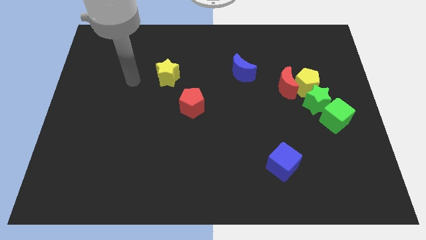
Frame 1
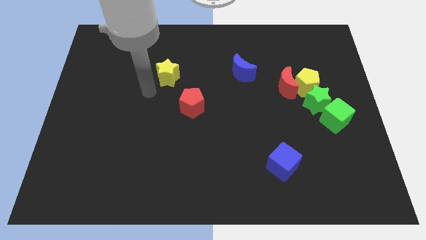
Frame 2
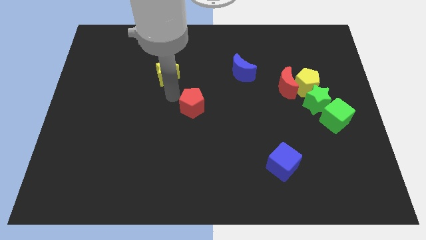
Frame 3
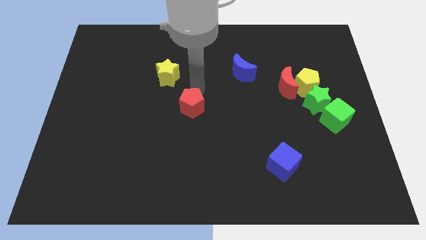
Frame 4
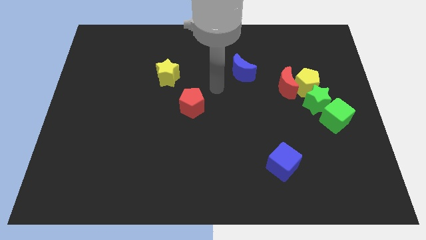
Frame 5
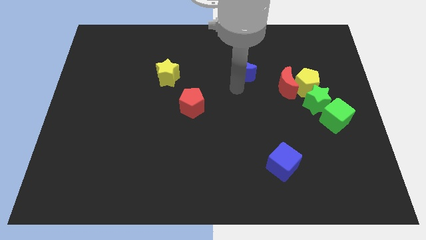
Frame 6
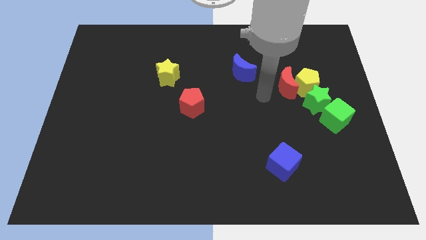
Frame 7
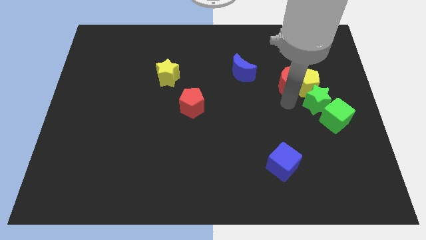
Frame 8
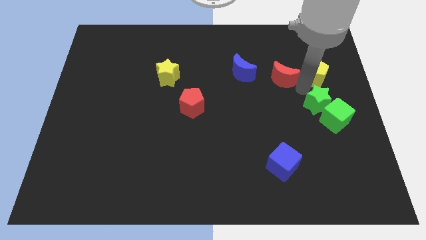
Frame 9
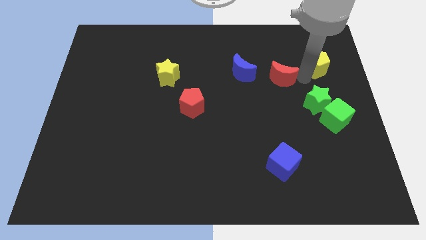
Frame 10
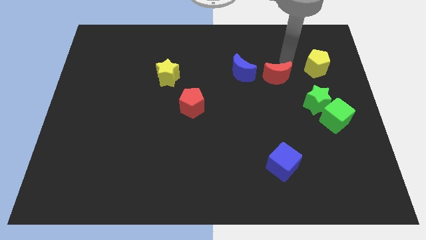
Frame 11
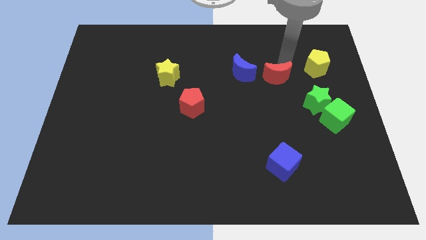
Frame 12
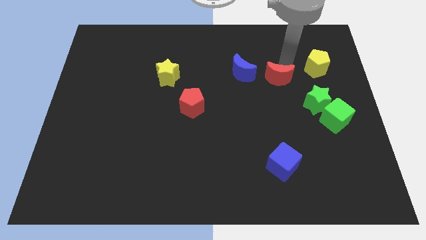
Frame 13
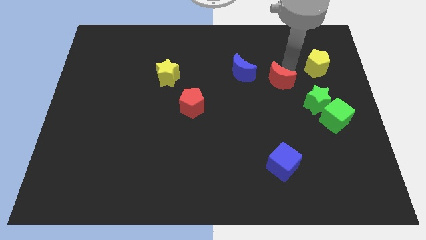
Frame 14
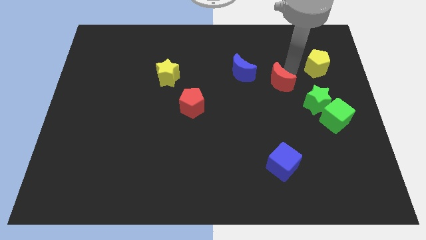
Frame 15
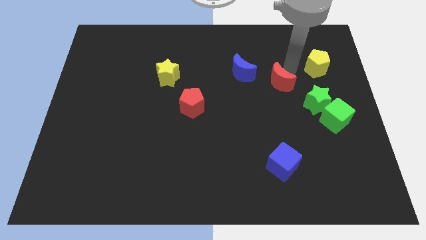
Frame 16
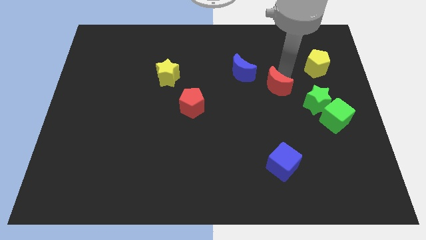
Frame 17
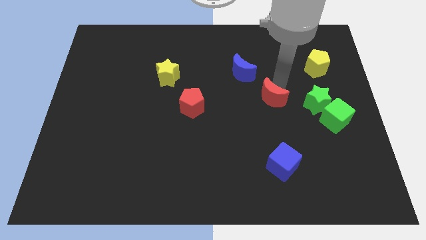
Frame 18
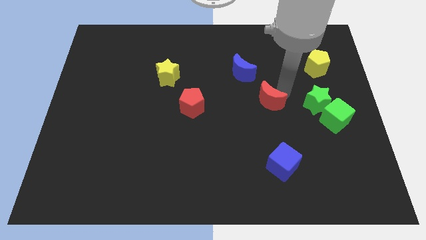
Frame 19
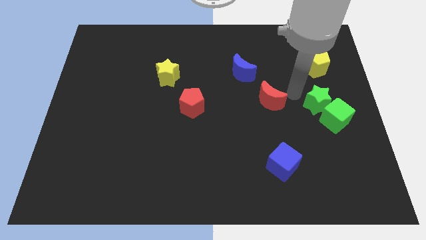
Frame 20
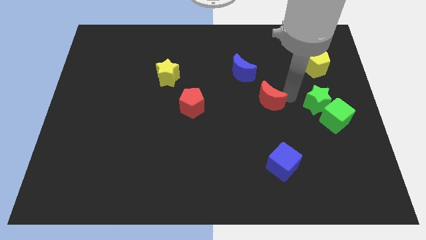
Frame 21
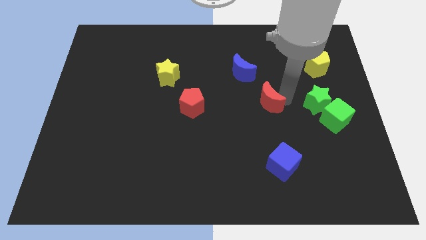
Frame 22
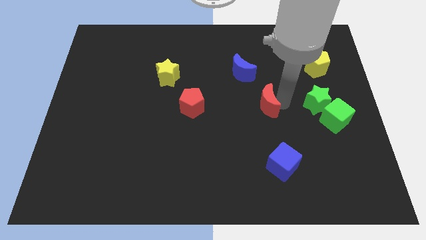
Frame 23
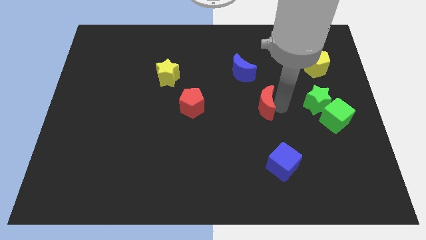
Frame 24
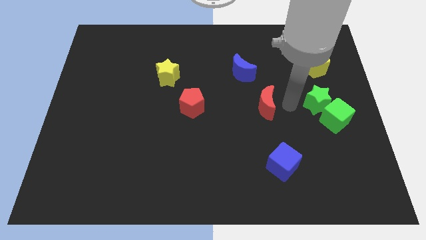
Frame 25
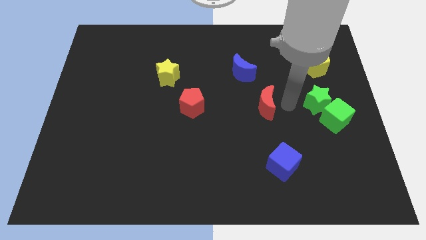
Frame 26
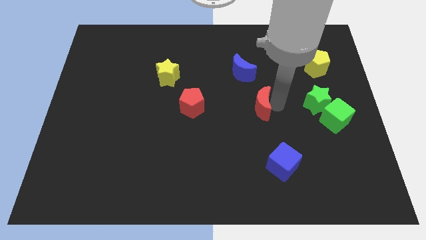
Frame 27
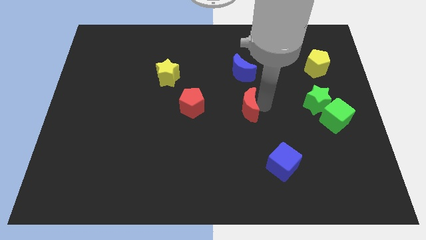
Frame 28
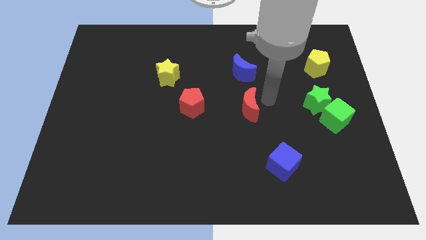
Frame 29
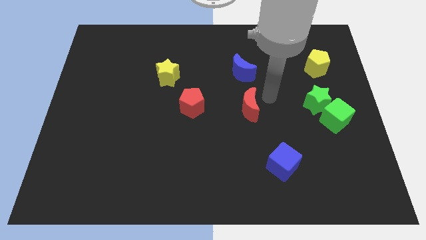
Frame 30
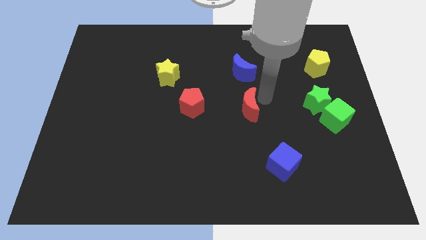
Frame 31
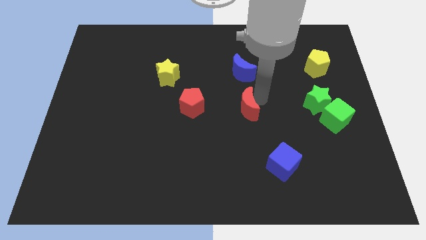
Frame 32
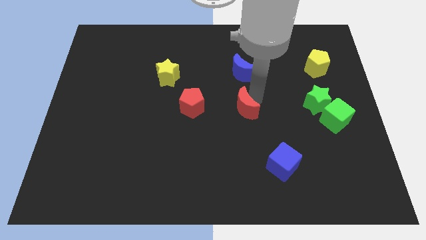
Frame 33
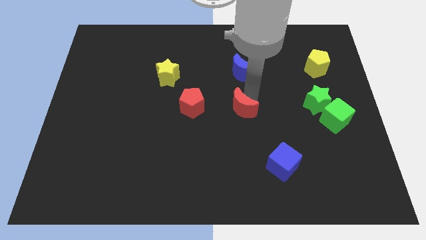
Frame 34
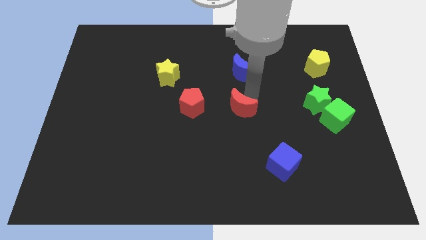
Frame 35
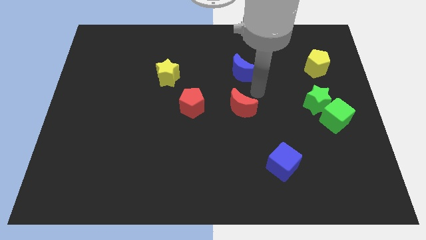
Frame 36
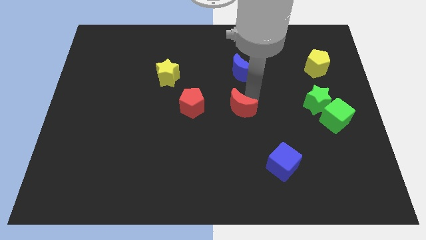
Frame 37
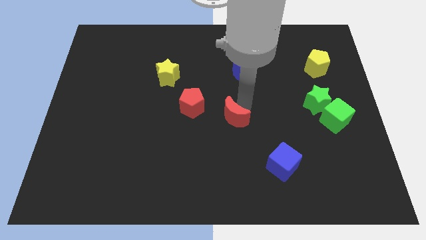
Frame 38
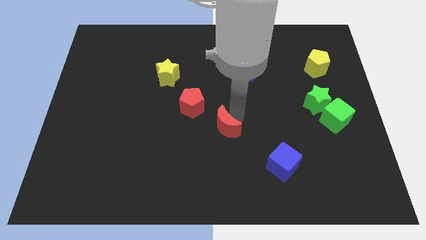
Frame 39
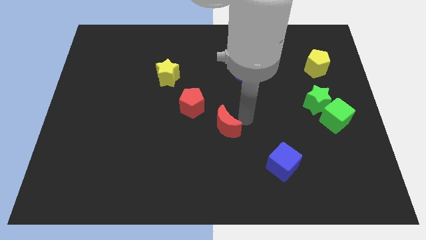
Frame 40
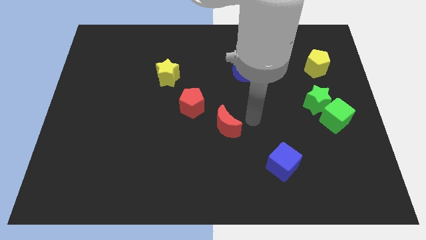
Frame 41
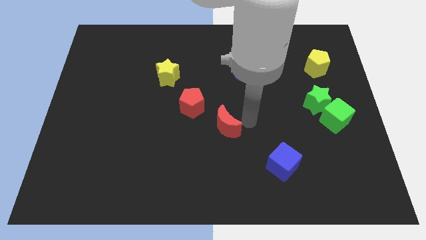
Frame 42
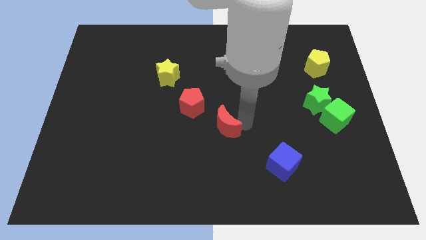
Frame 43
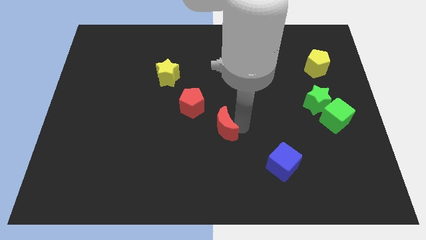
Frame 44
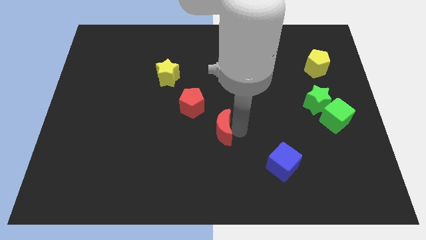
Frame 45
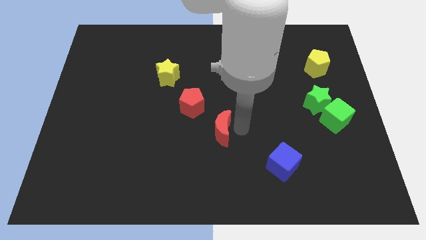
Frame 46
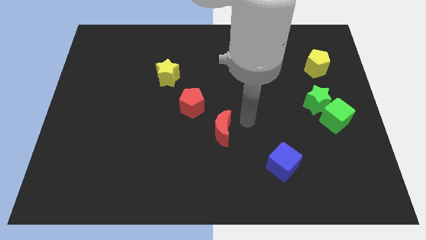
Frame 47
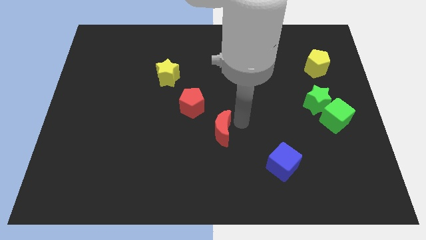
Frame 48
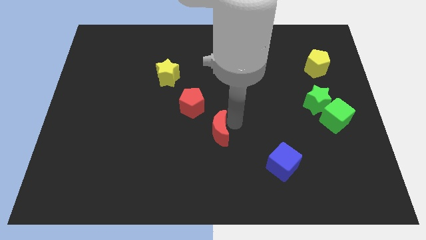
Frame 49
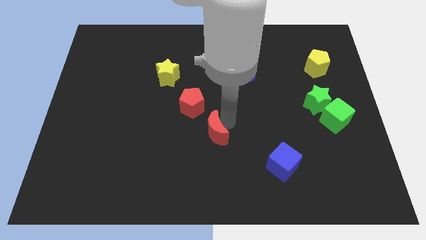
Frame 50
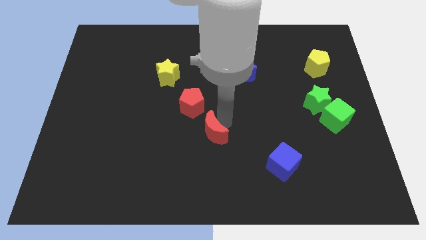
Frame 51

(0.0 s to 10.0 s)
slide the red moon to the bottom side of the red pentagon

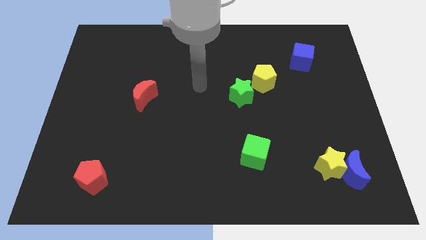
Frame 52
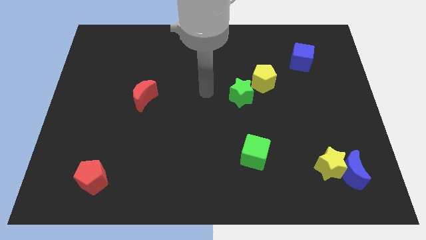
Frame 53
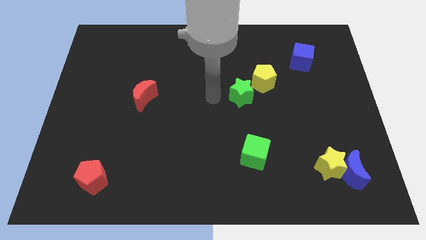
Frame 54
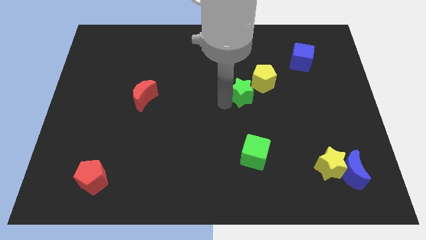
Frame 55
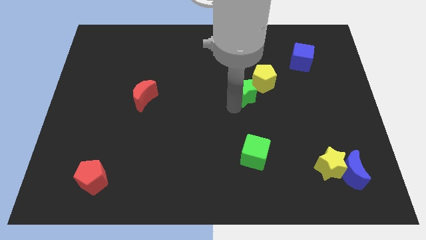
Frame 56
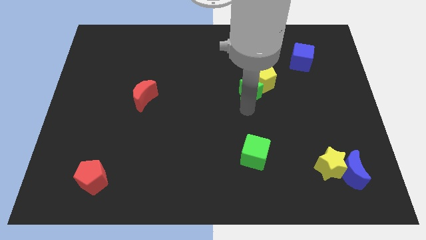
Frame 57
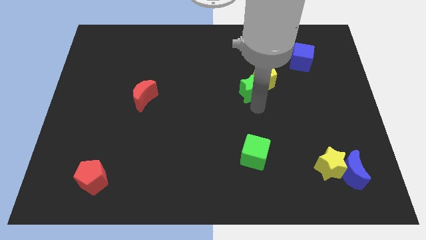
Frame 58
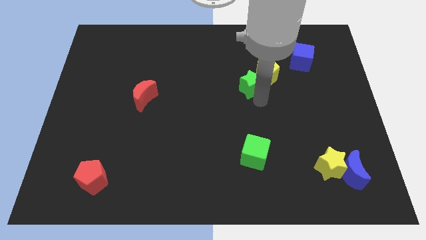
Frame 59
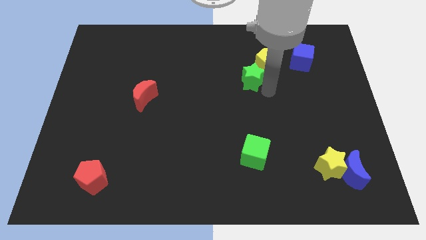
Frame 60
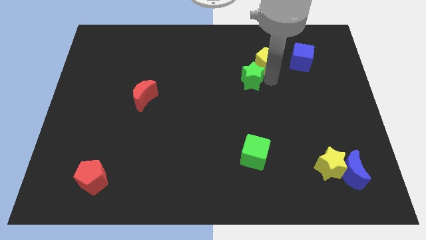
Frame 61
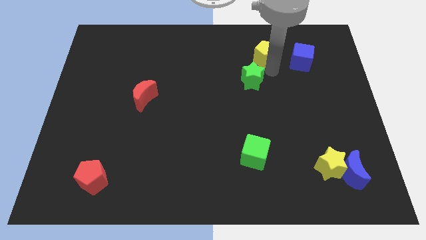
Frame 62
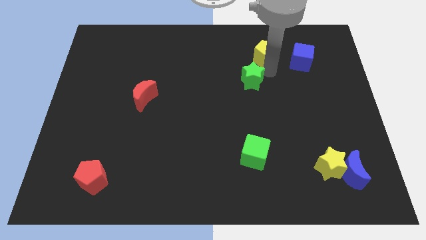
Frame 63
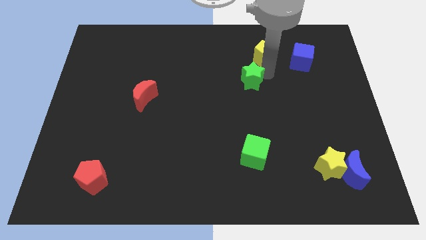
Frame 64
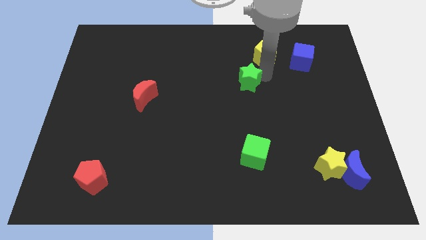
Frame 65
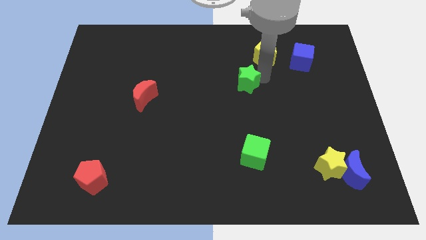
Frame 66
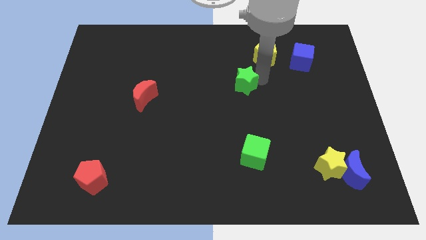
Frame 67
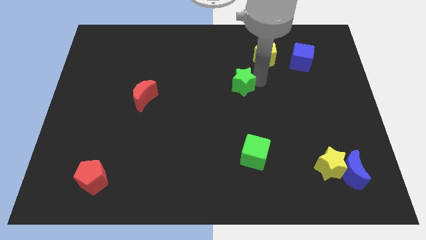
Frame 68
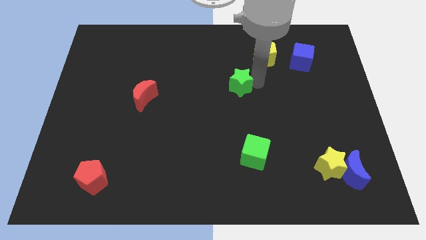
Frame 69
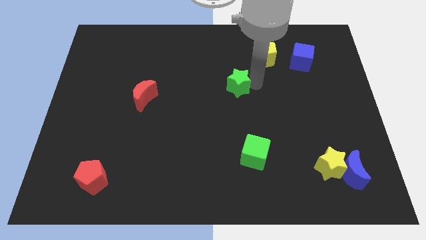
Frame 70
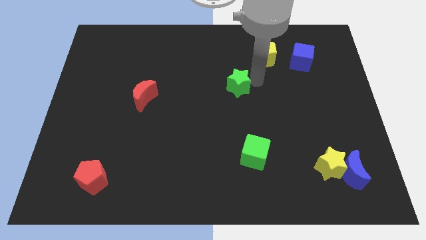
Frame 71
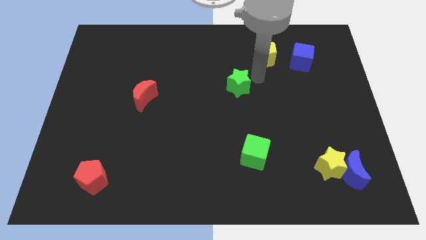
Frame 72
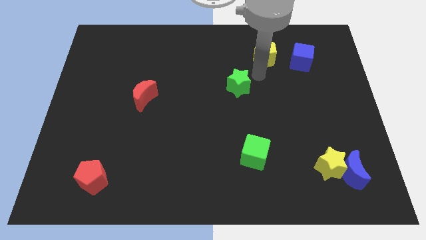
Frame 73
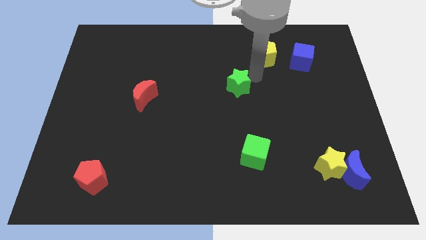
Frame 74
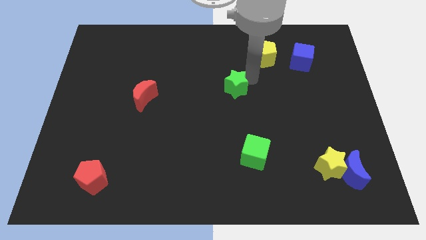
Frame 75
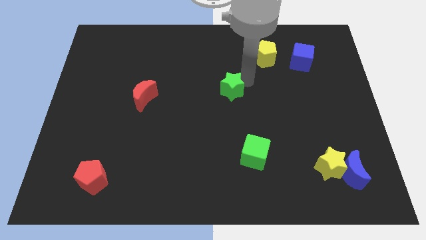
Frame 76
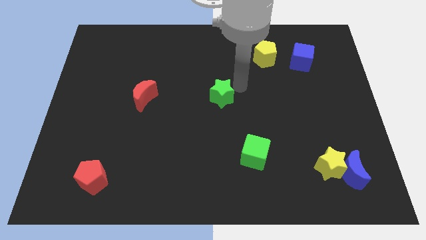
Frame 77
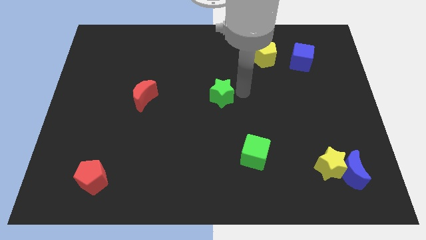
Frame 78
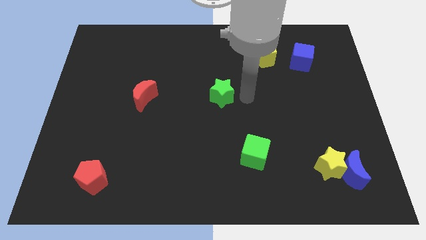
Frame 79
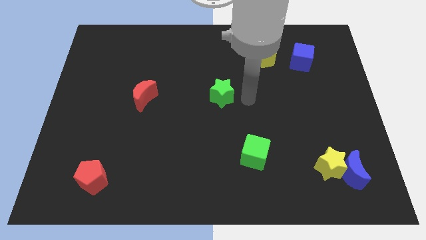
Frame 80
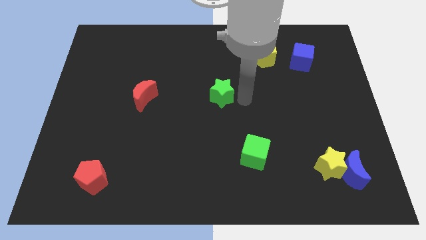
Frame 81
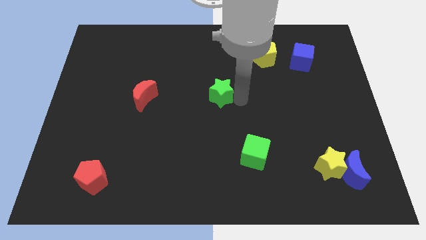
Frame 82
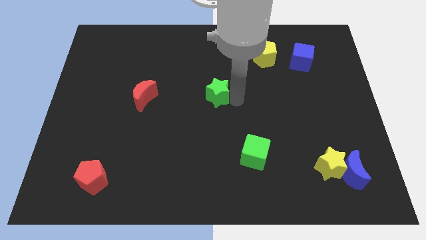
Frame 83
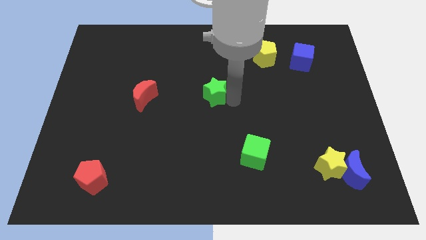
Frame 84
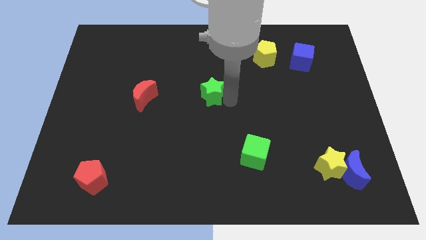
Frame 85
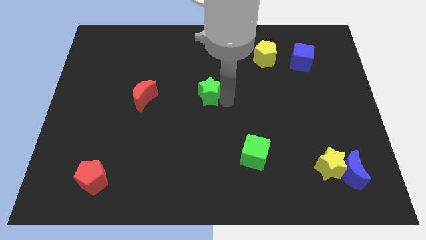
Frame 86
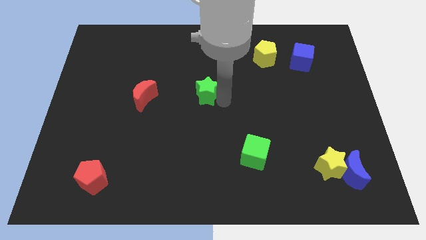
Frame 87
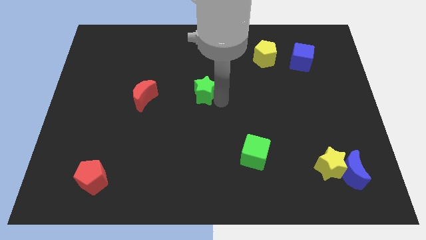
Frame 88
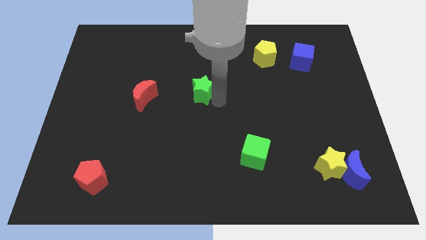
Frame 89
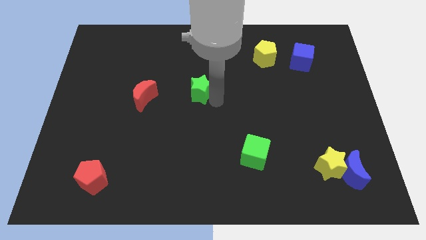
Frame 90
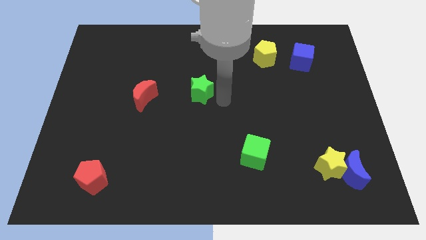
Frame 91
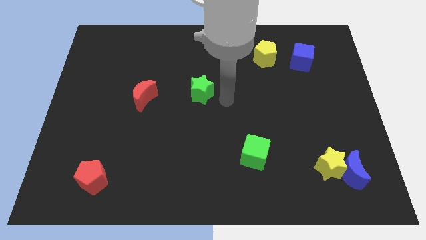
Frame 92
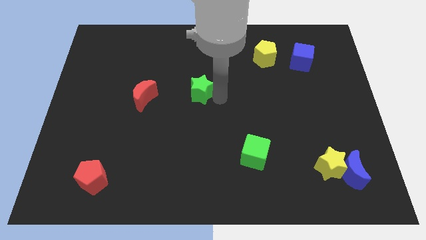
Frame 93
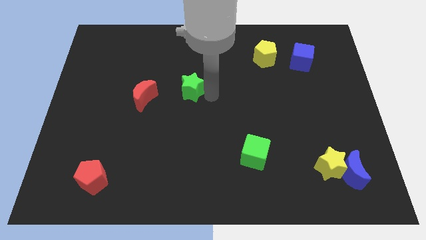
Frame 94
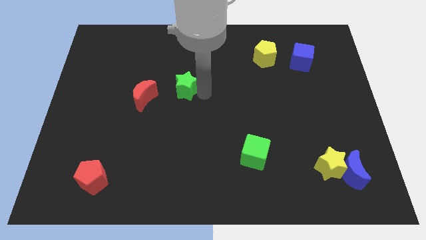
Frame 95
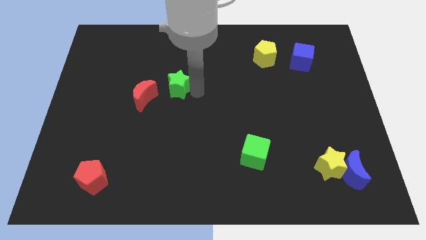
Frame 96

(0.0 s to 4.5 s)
slide the green star to the top right of the red moon
